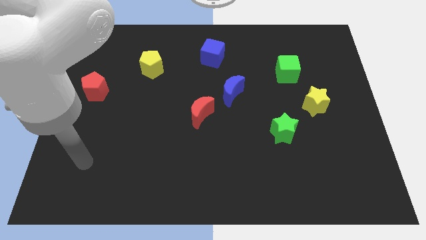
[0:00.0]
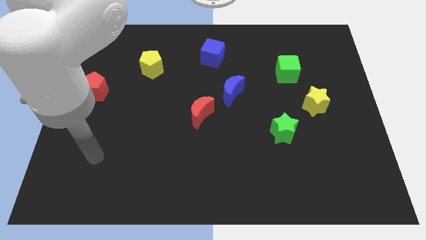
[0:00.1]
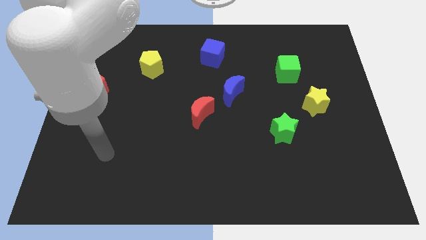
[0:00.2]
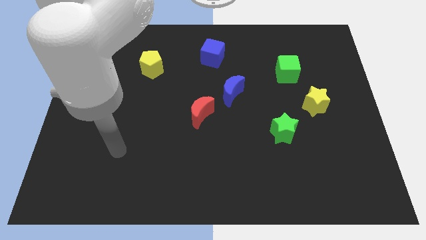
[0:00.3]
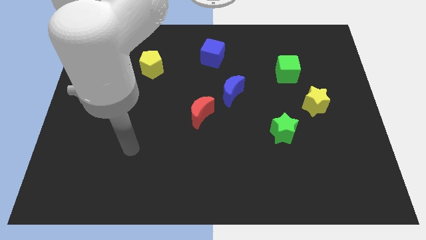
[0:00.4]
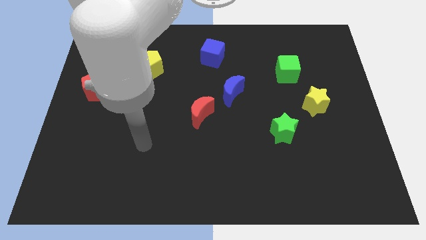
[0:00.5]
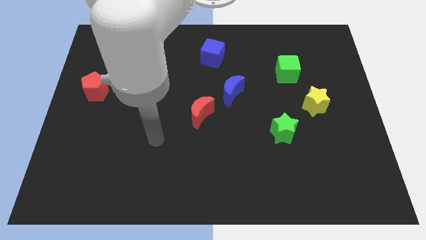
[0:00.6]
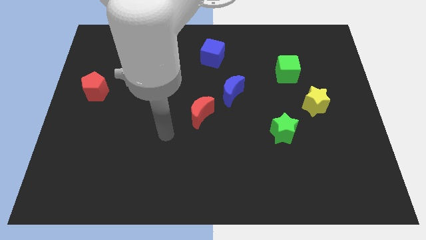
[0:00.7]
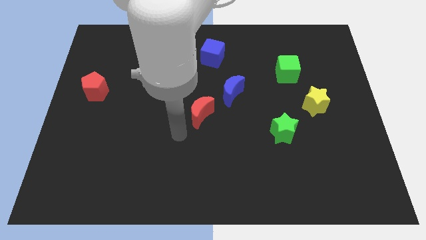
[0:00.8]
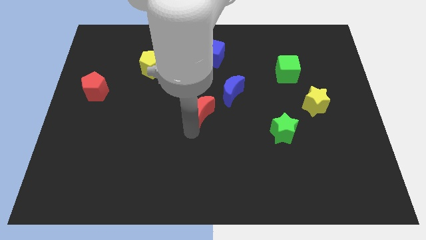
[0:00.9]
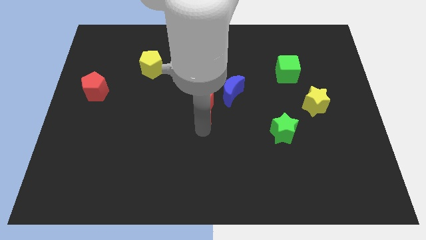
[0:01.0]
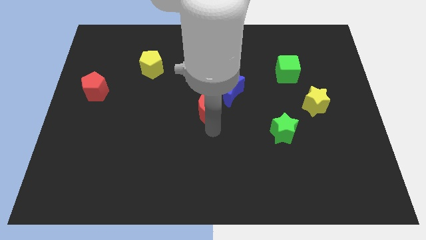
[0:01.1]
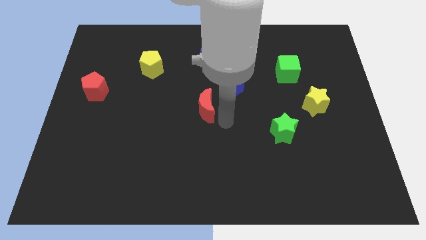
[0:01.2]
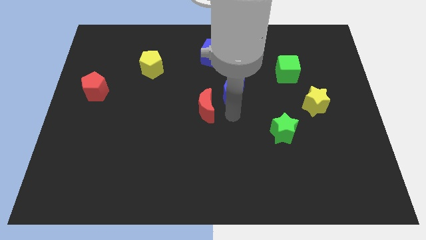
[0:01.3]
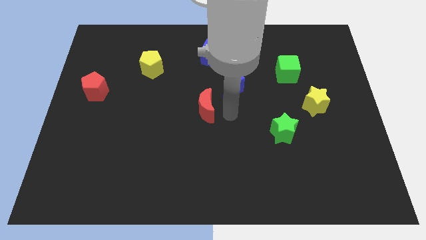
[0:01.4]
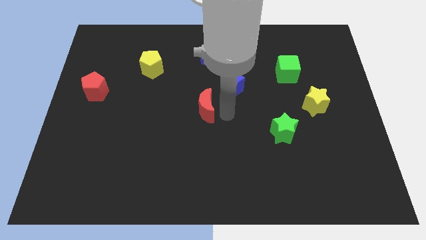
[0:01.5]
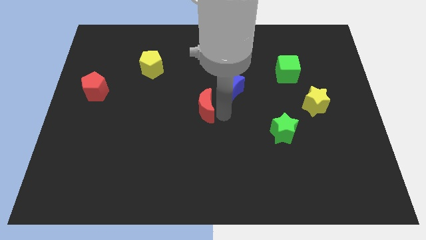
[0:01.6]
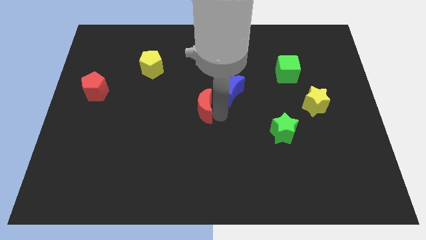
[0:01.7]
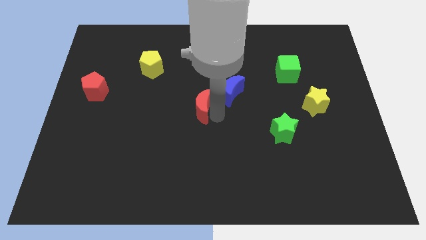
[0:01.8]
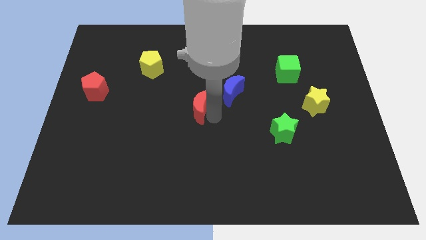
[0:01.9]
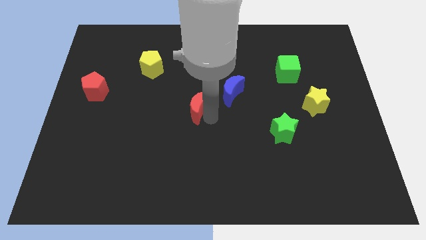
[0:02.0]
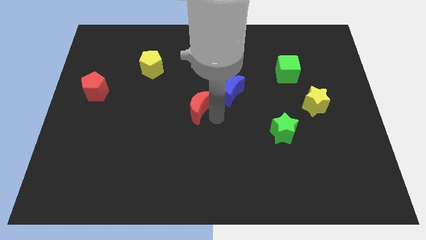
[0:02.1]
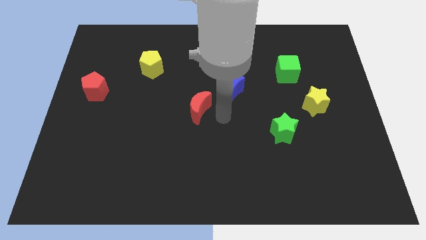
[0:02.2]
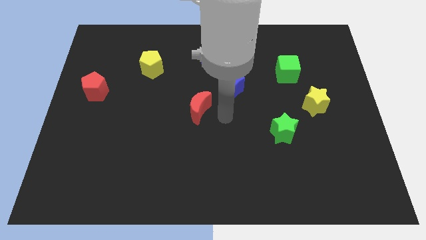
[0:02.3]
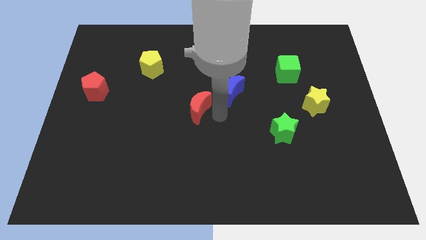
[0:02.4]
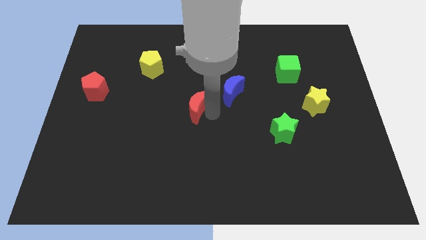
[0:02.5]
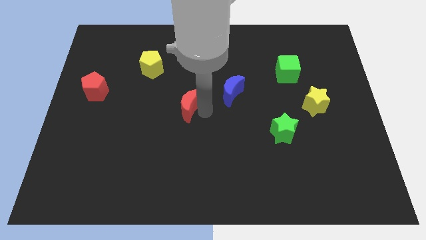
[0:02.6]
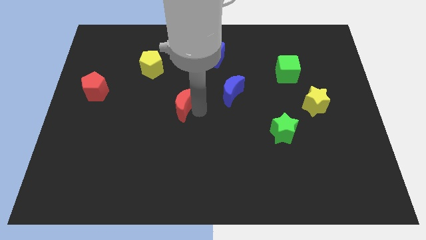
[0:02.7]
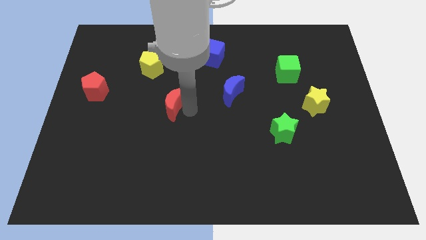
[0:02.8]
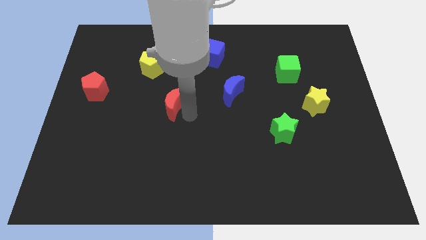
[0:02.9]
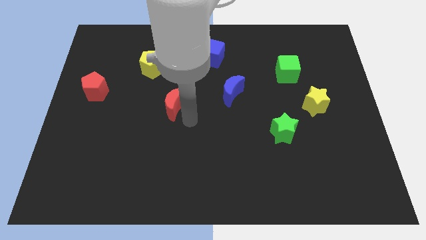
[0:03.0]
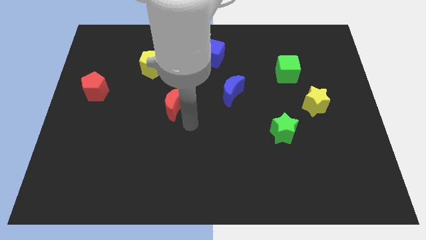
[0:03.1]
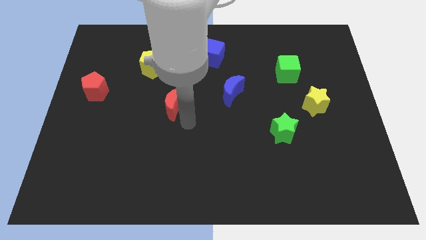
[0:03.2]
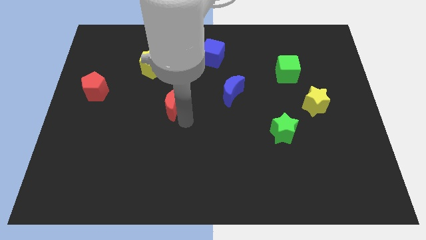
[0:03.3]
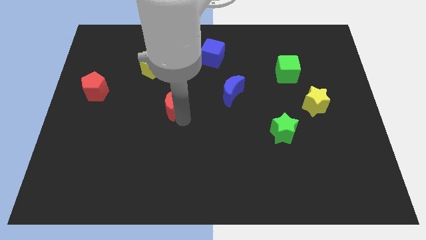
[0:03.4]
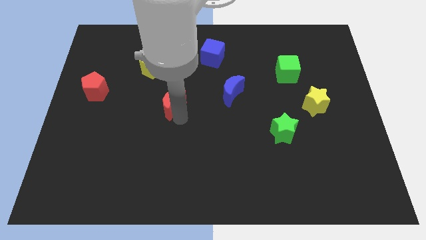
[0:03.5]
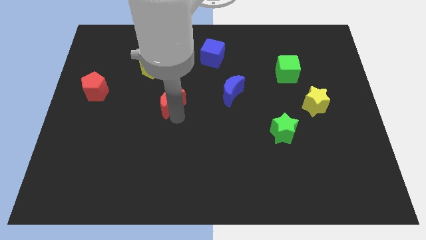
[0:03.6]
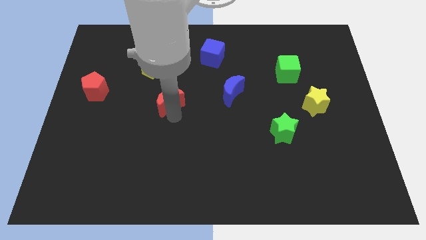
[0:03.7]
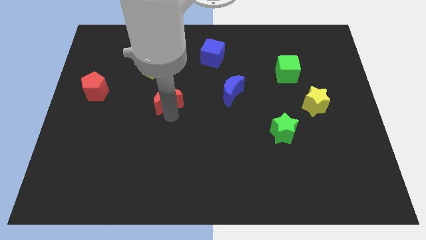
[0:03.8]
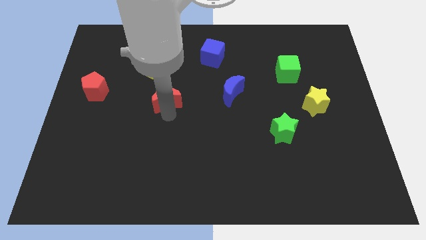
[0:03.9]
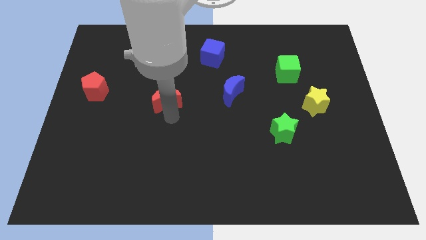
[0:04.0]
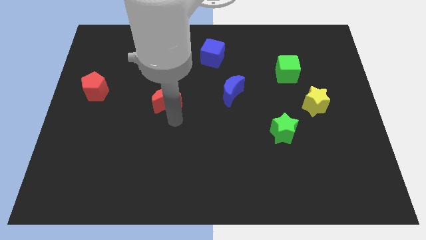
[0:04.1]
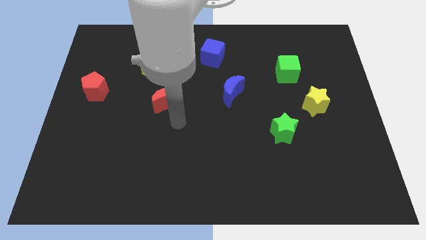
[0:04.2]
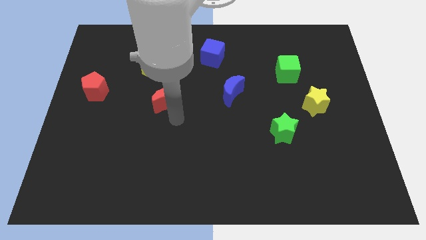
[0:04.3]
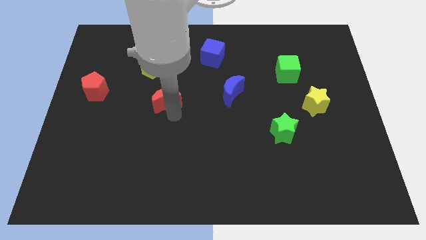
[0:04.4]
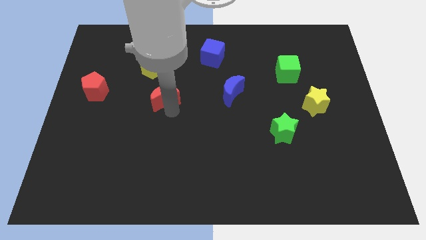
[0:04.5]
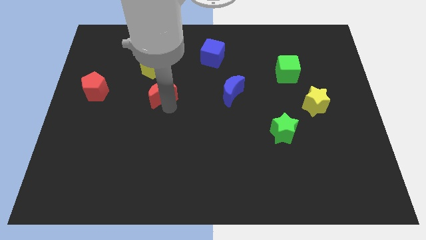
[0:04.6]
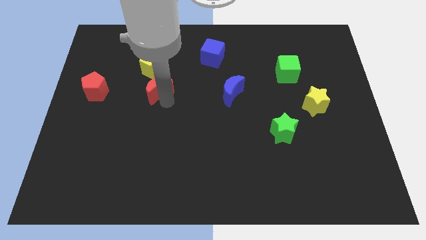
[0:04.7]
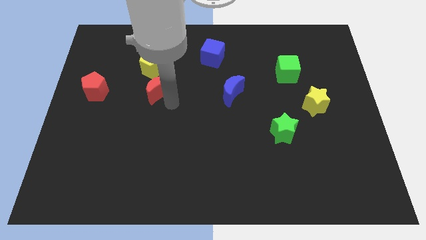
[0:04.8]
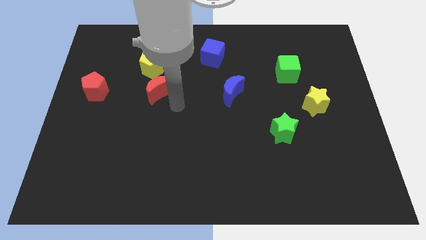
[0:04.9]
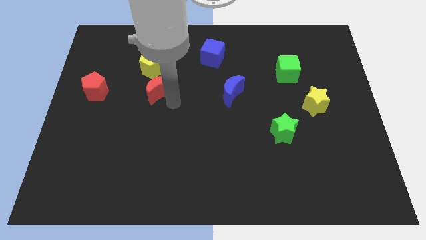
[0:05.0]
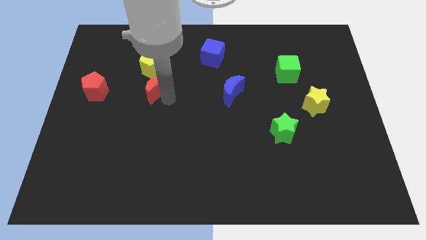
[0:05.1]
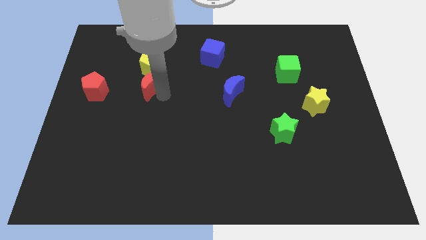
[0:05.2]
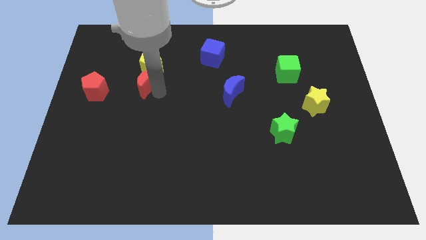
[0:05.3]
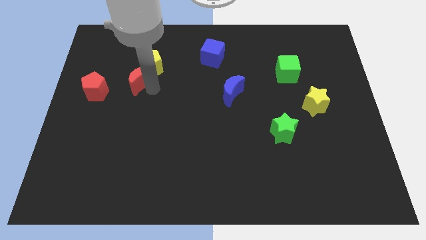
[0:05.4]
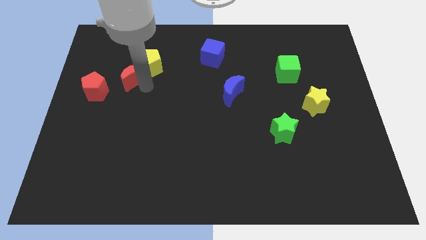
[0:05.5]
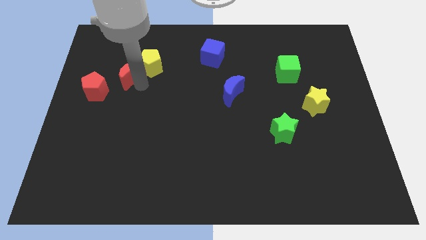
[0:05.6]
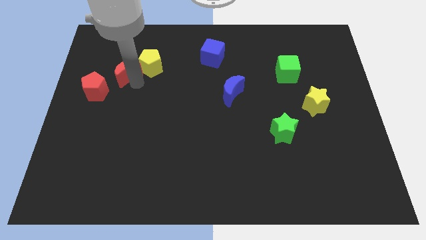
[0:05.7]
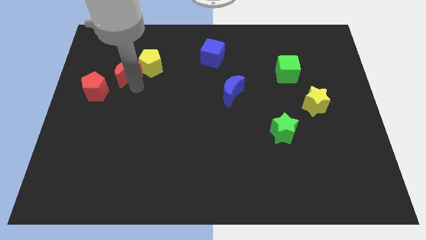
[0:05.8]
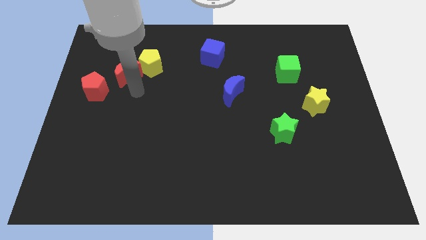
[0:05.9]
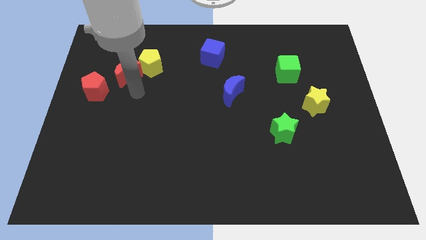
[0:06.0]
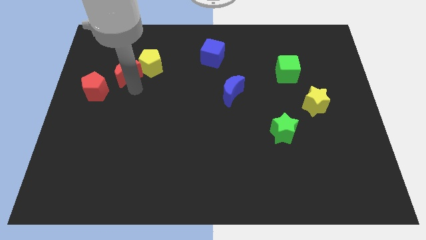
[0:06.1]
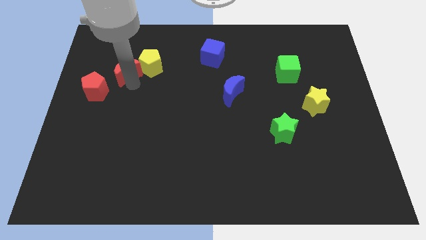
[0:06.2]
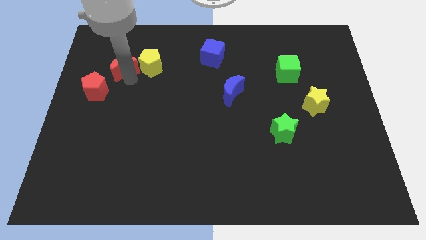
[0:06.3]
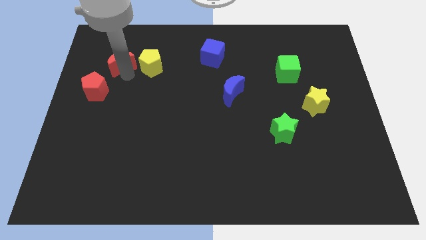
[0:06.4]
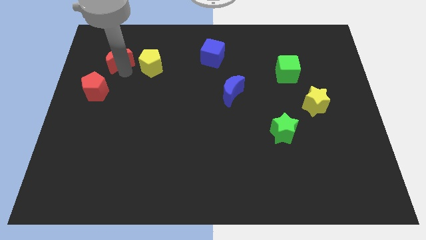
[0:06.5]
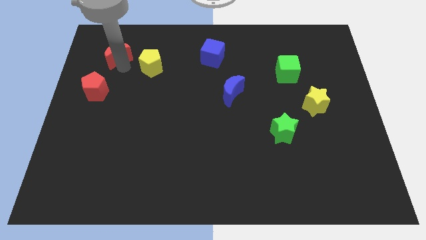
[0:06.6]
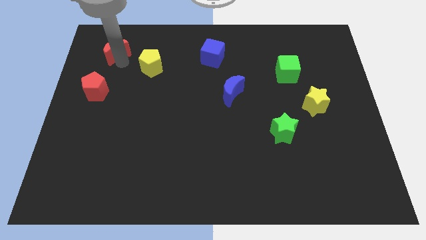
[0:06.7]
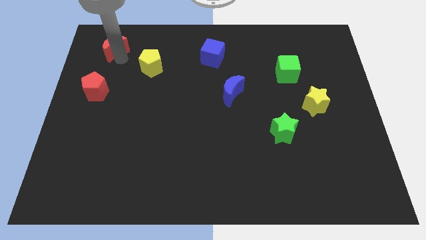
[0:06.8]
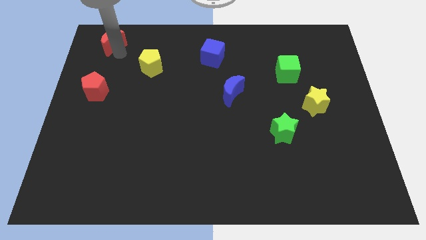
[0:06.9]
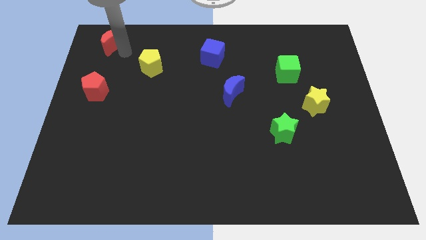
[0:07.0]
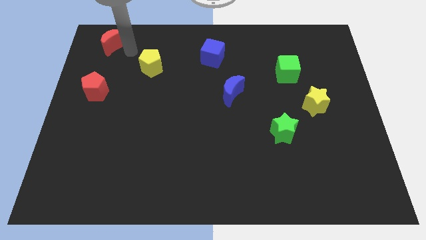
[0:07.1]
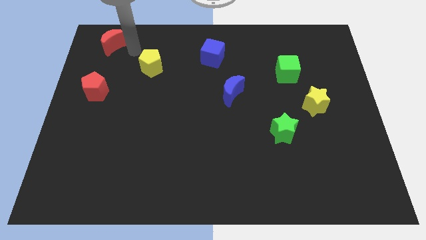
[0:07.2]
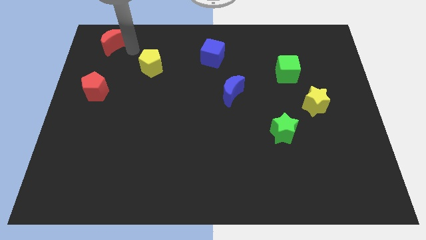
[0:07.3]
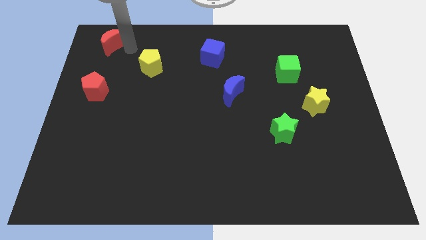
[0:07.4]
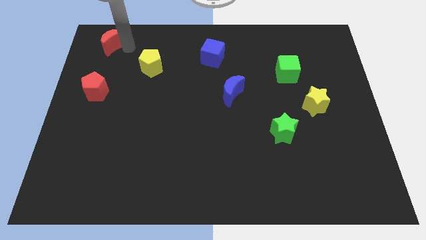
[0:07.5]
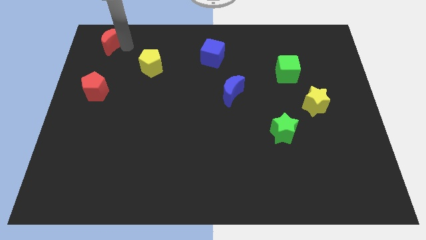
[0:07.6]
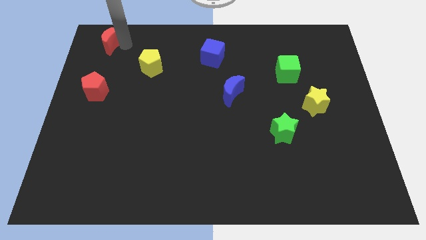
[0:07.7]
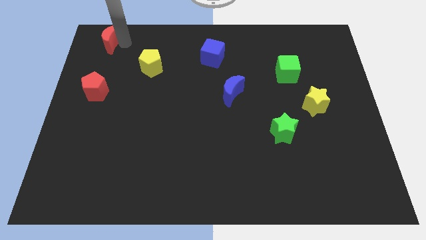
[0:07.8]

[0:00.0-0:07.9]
slide the red moon to the top left
